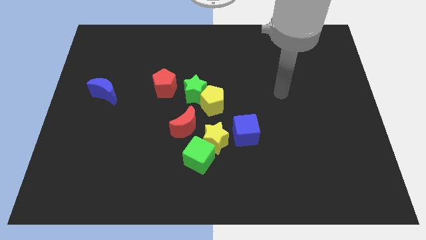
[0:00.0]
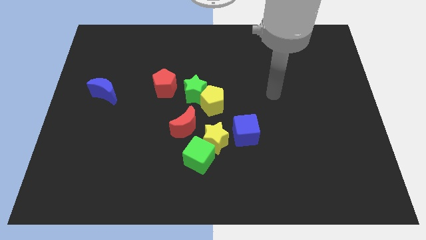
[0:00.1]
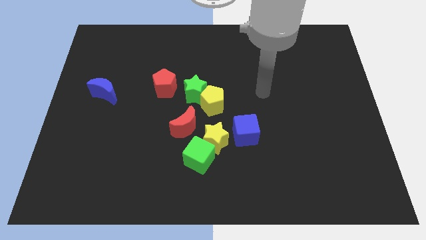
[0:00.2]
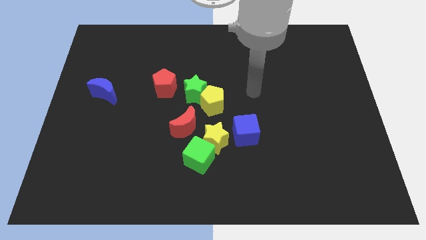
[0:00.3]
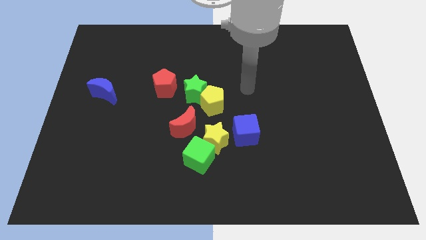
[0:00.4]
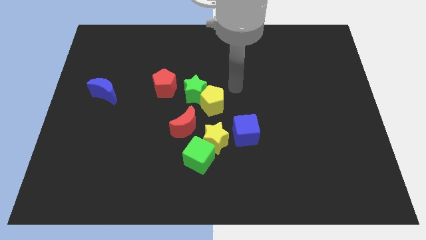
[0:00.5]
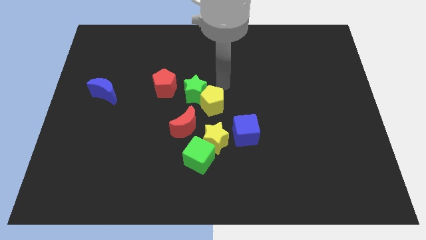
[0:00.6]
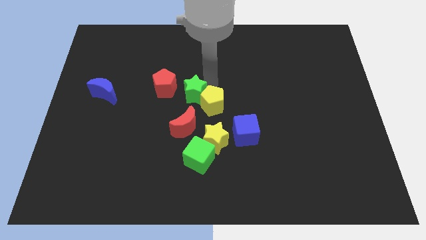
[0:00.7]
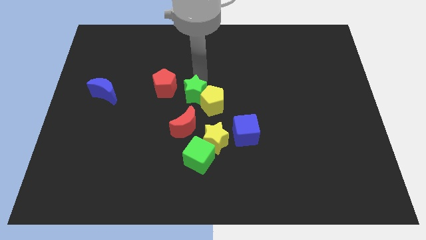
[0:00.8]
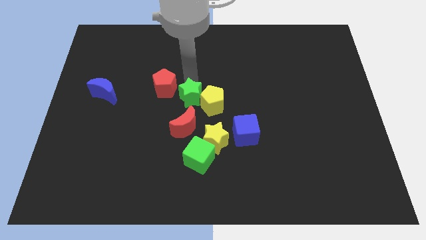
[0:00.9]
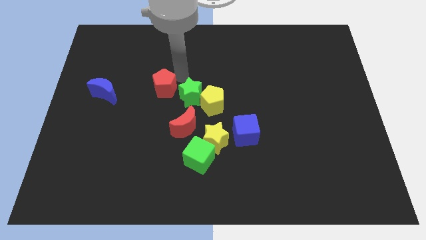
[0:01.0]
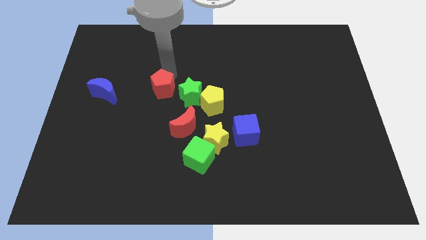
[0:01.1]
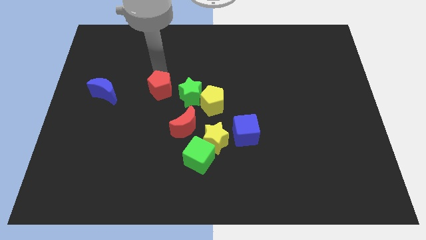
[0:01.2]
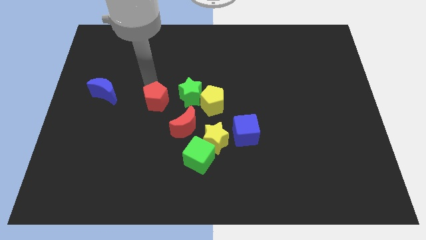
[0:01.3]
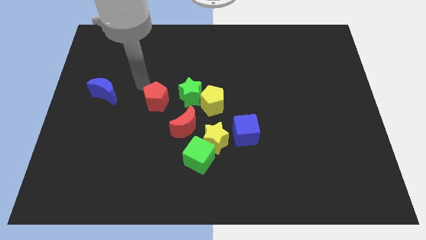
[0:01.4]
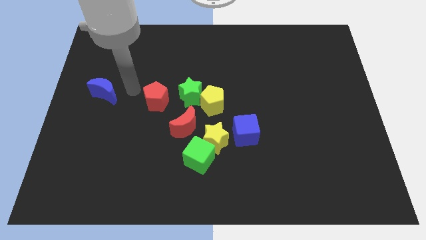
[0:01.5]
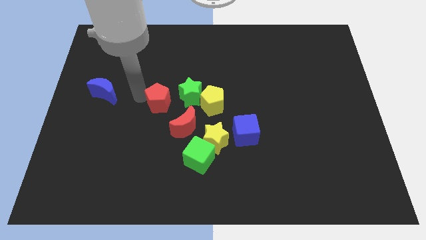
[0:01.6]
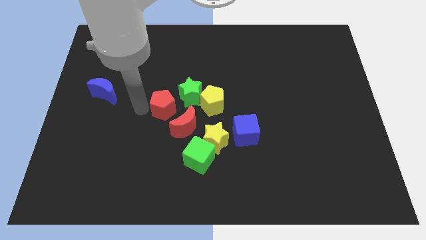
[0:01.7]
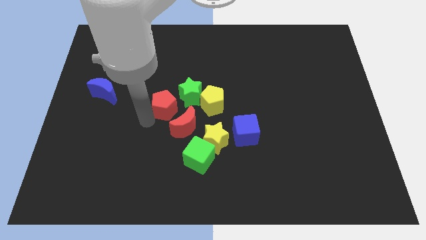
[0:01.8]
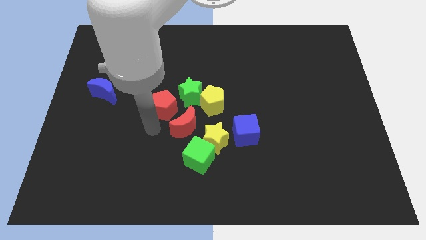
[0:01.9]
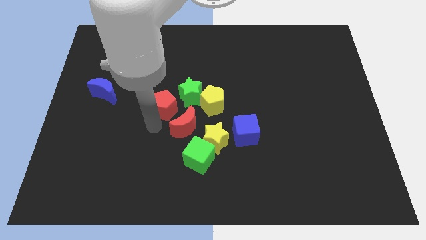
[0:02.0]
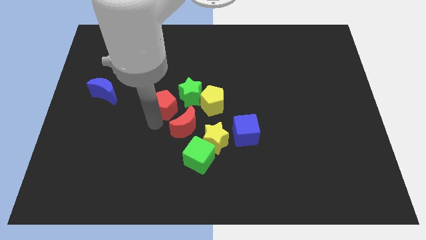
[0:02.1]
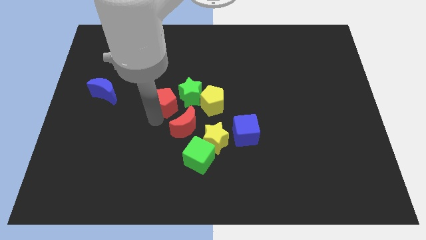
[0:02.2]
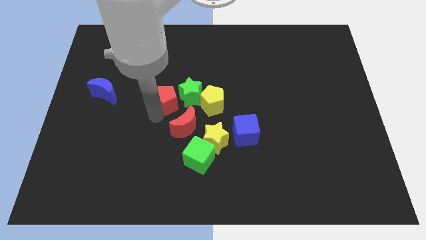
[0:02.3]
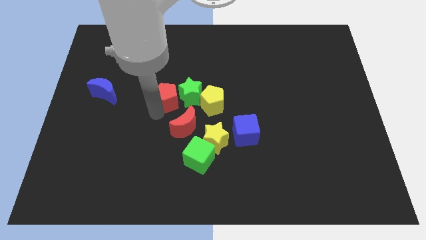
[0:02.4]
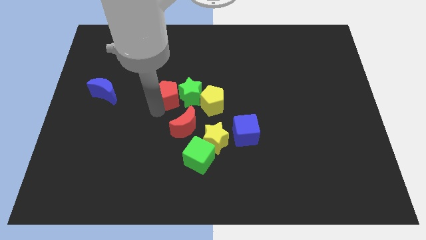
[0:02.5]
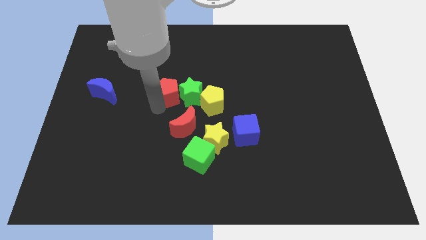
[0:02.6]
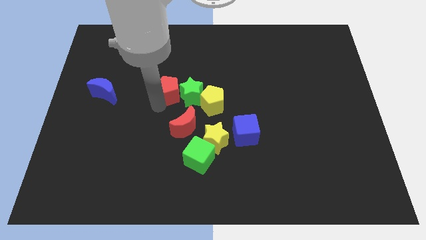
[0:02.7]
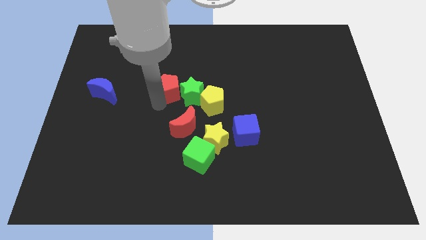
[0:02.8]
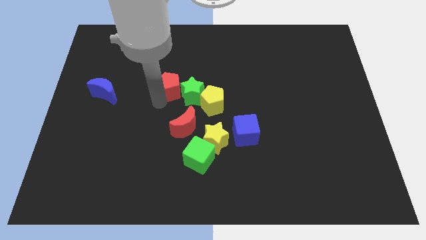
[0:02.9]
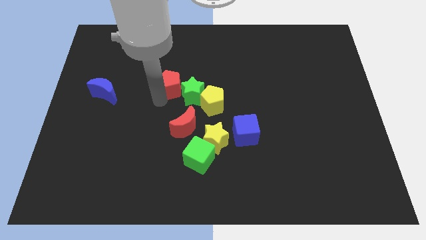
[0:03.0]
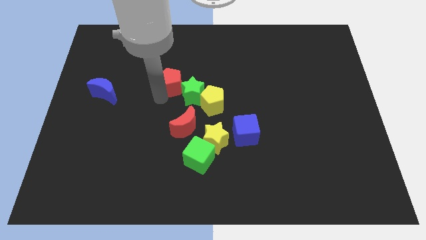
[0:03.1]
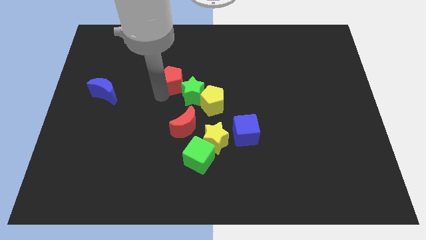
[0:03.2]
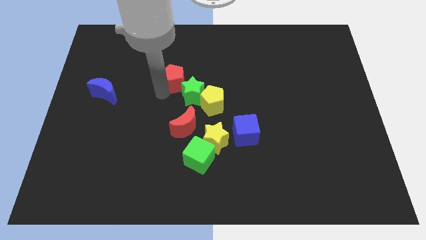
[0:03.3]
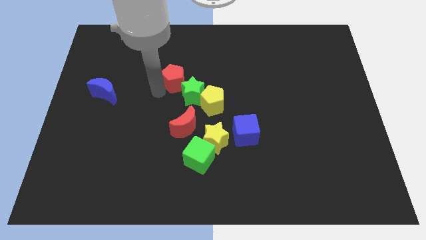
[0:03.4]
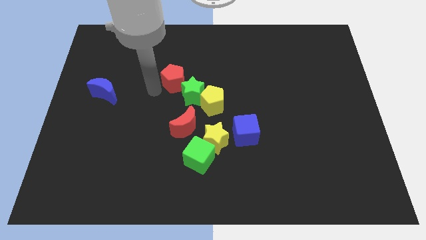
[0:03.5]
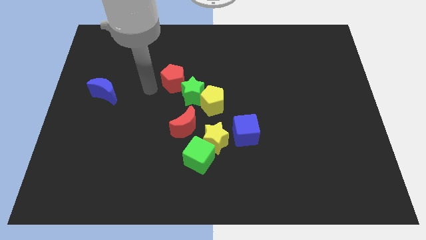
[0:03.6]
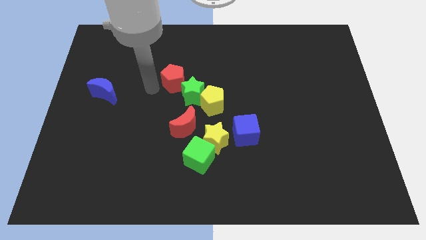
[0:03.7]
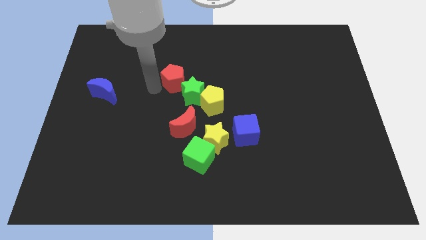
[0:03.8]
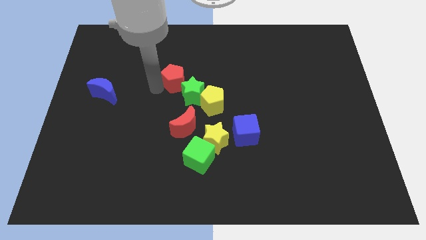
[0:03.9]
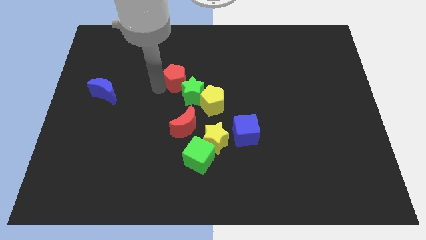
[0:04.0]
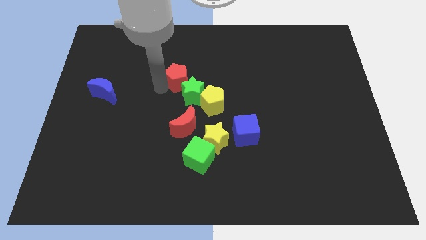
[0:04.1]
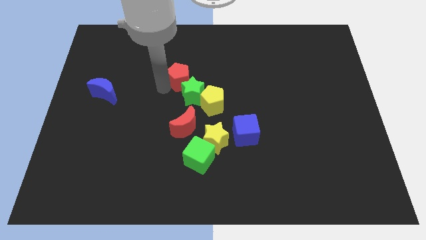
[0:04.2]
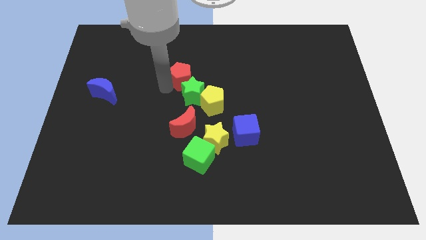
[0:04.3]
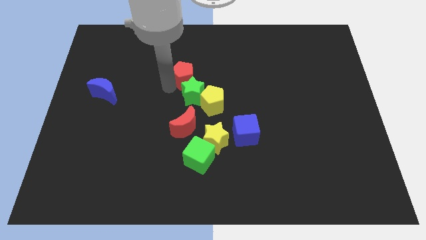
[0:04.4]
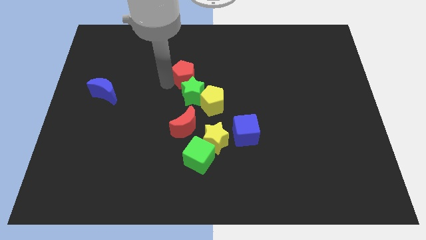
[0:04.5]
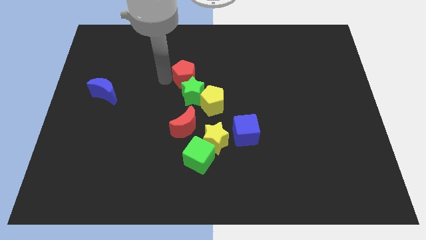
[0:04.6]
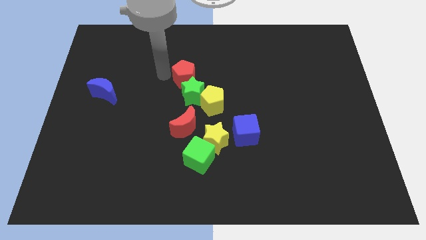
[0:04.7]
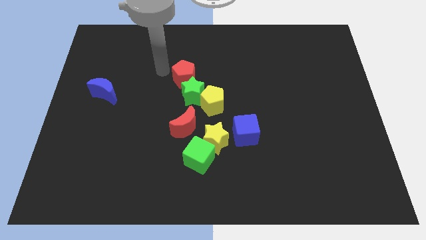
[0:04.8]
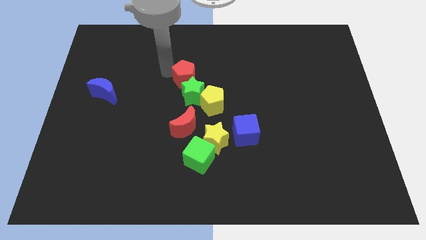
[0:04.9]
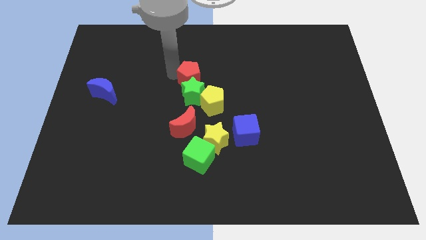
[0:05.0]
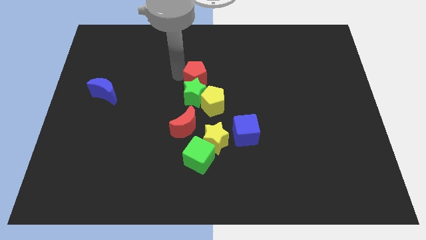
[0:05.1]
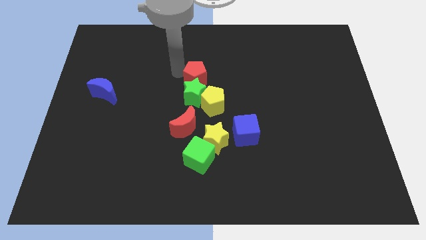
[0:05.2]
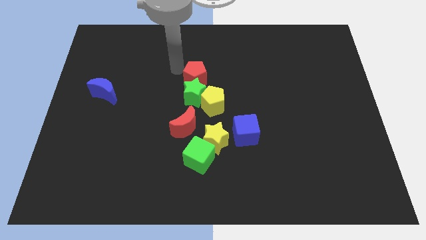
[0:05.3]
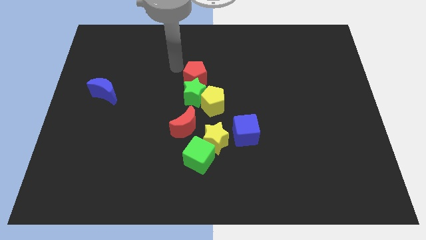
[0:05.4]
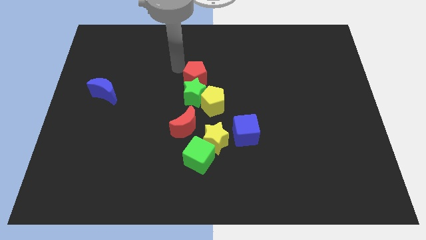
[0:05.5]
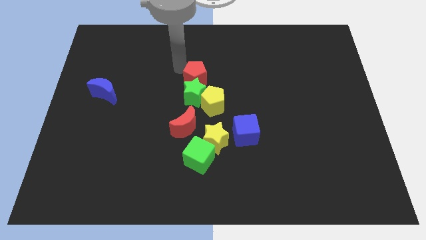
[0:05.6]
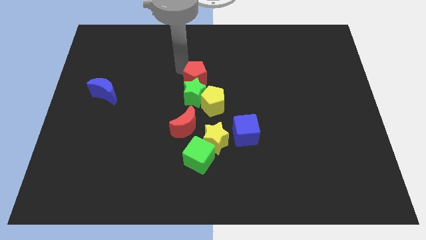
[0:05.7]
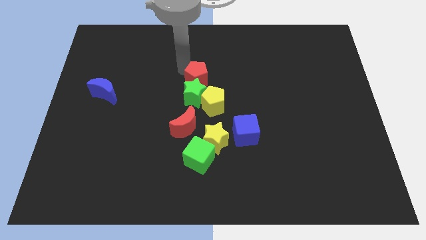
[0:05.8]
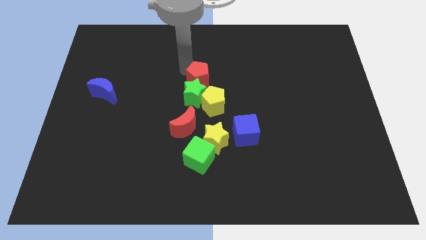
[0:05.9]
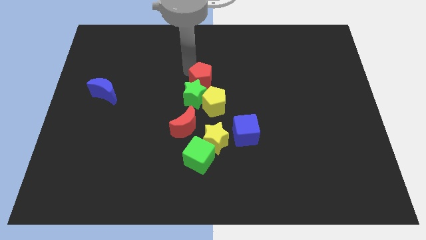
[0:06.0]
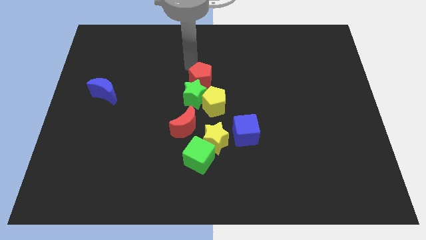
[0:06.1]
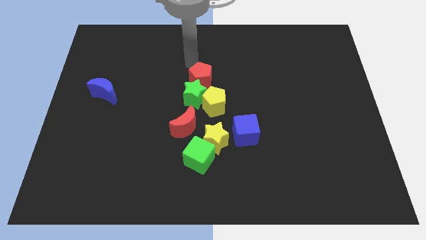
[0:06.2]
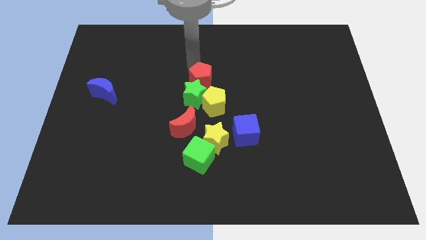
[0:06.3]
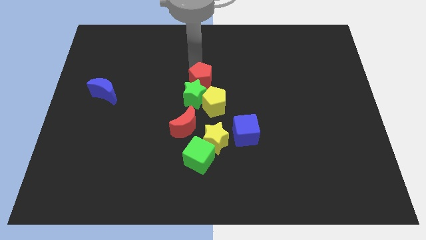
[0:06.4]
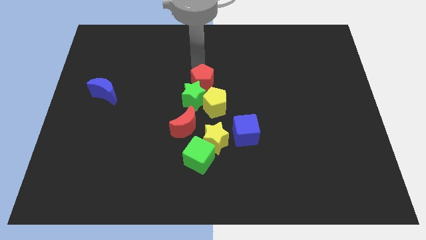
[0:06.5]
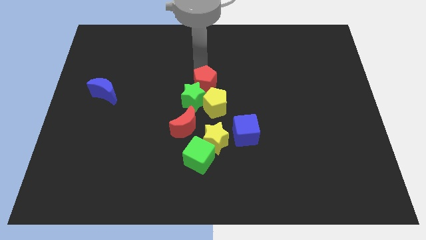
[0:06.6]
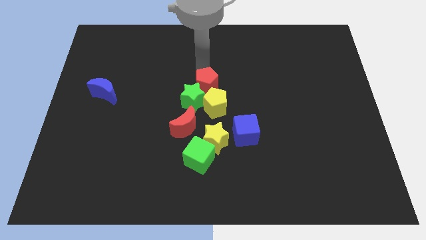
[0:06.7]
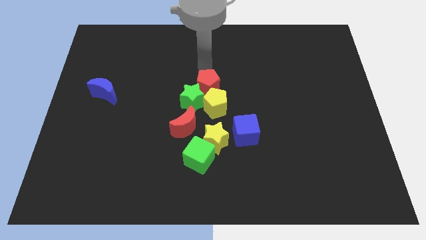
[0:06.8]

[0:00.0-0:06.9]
put the red pentagon above the yellow star
